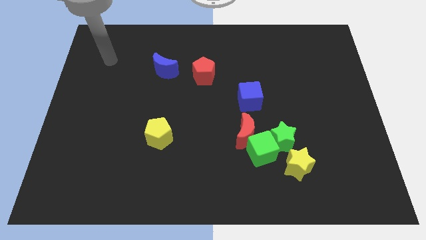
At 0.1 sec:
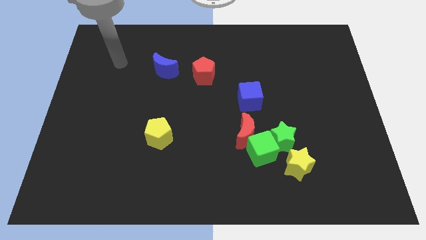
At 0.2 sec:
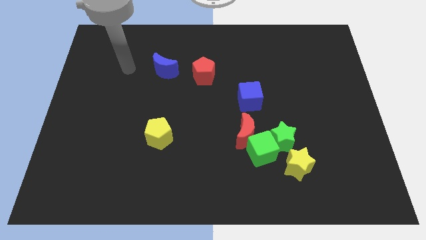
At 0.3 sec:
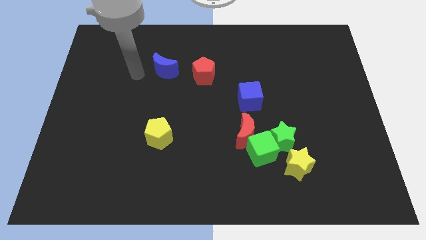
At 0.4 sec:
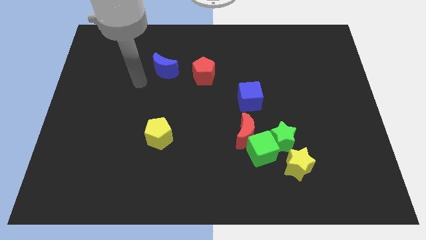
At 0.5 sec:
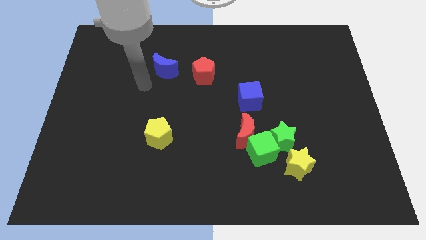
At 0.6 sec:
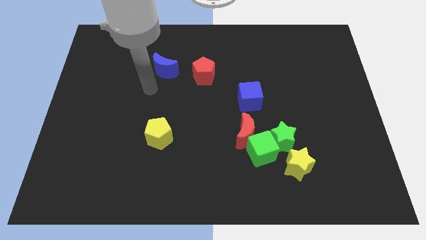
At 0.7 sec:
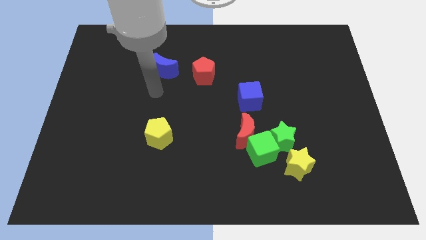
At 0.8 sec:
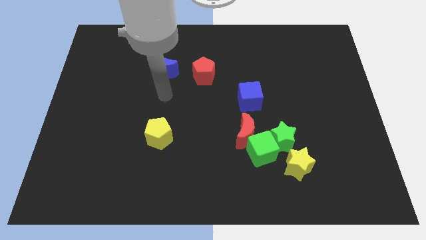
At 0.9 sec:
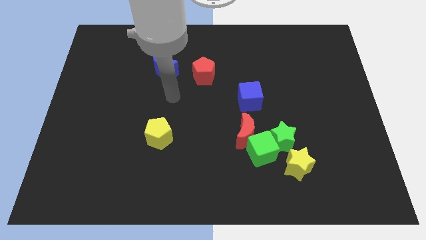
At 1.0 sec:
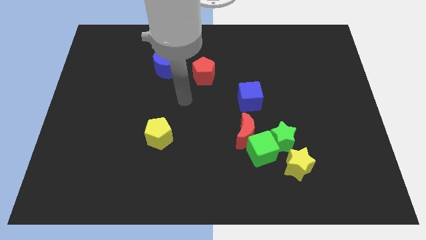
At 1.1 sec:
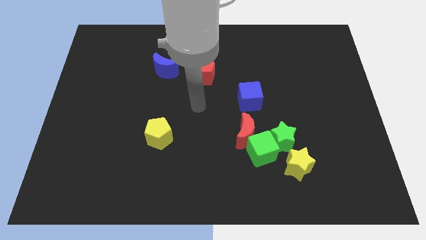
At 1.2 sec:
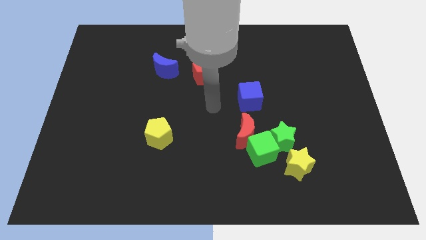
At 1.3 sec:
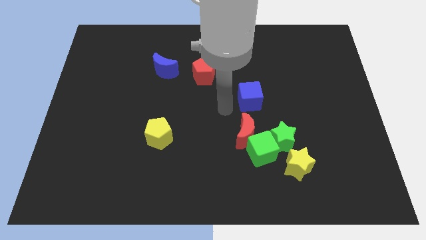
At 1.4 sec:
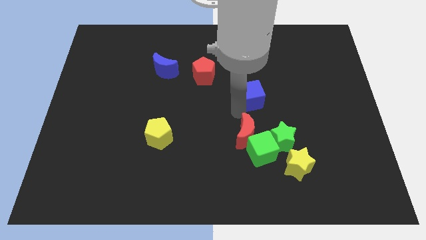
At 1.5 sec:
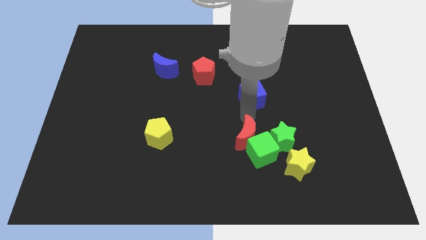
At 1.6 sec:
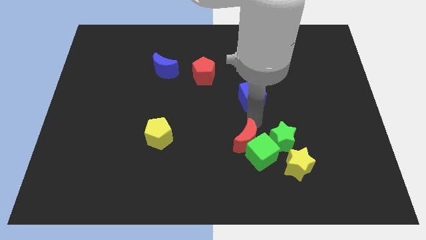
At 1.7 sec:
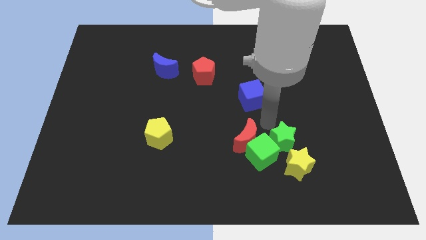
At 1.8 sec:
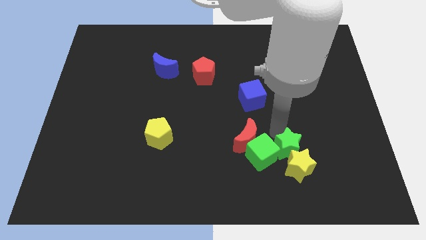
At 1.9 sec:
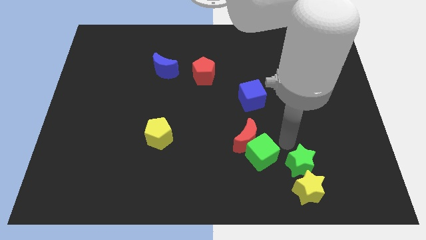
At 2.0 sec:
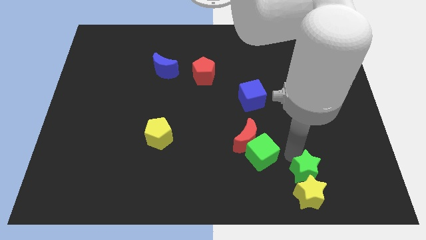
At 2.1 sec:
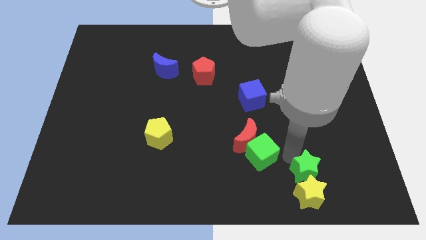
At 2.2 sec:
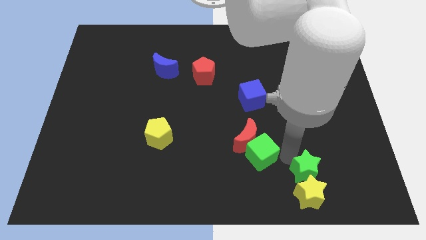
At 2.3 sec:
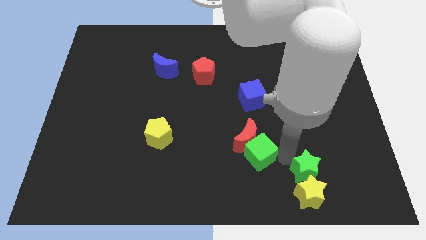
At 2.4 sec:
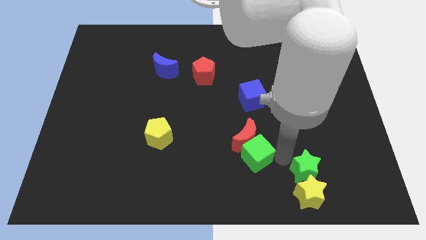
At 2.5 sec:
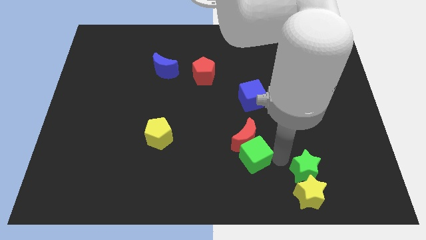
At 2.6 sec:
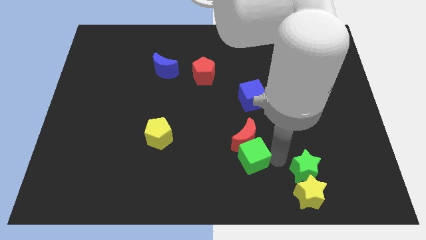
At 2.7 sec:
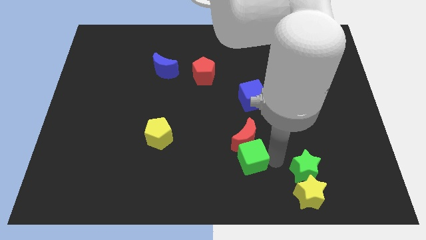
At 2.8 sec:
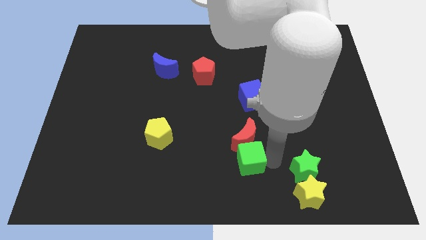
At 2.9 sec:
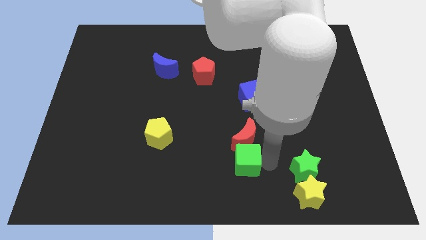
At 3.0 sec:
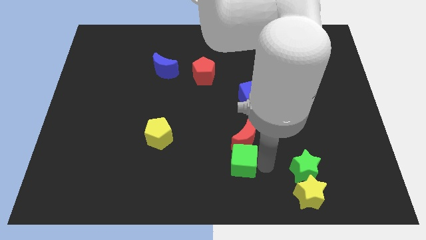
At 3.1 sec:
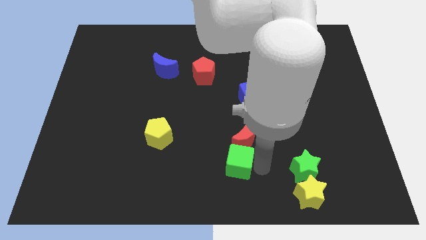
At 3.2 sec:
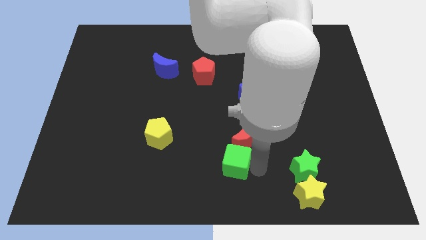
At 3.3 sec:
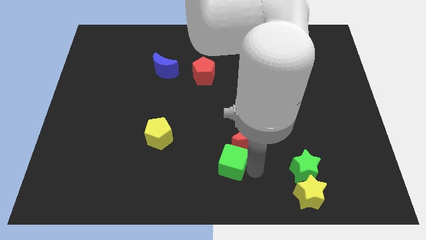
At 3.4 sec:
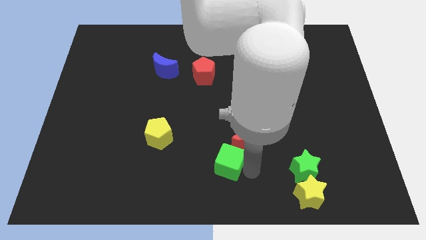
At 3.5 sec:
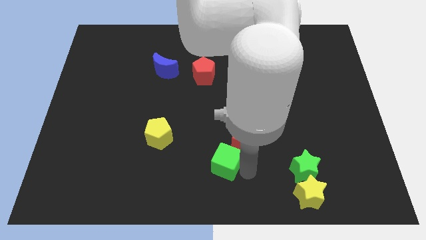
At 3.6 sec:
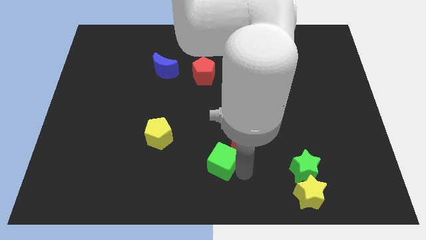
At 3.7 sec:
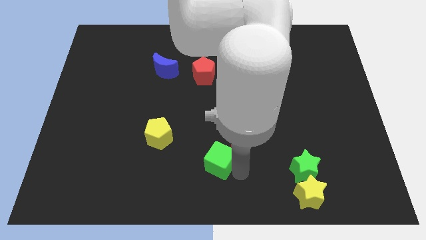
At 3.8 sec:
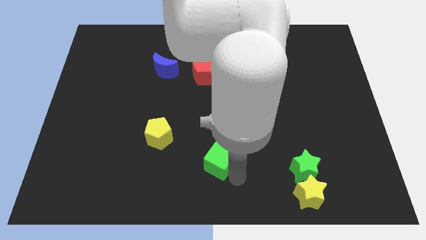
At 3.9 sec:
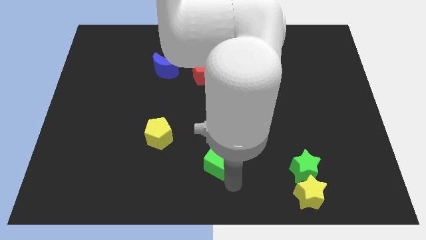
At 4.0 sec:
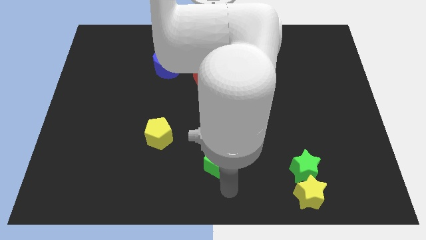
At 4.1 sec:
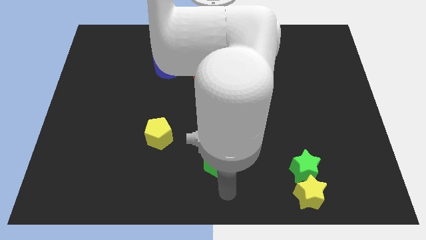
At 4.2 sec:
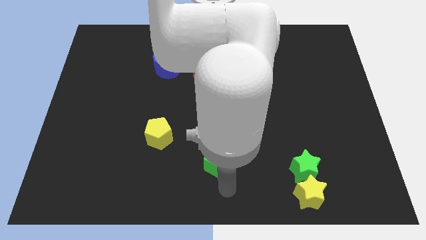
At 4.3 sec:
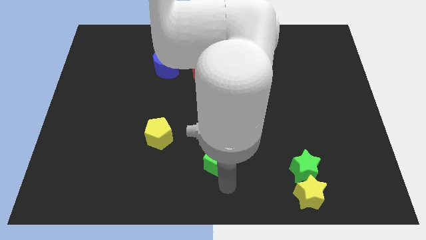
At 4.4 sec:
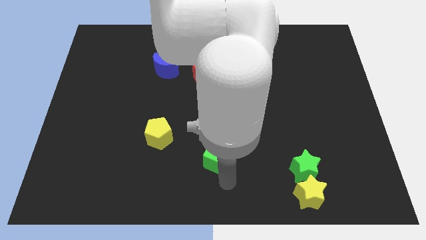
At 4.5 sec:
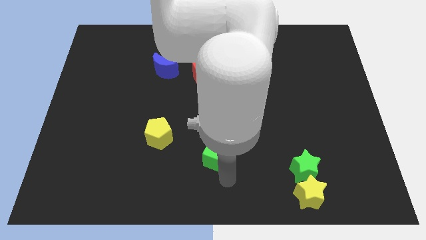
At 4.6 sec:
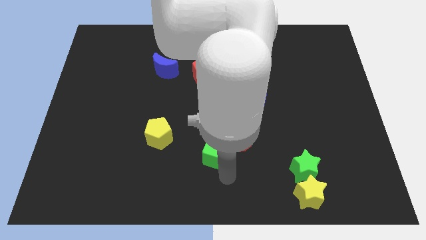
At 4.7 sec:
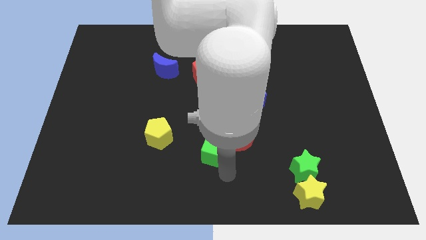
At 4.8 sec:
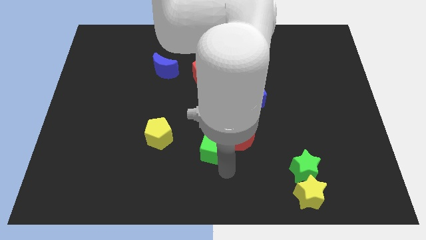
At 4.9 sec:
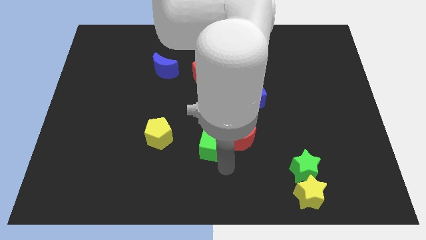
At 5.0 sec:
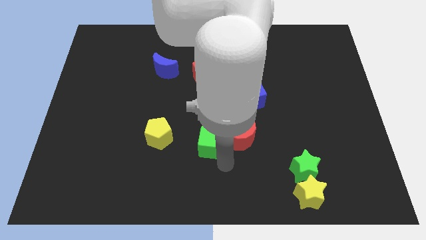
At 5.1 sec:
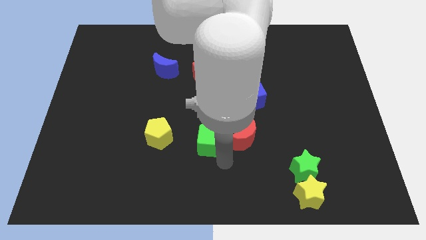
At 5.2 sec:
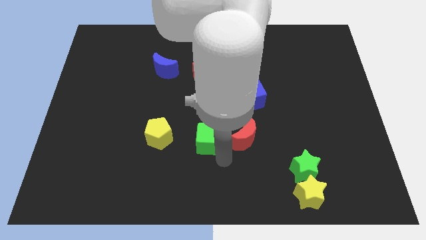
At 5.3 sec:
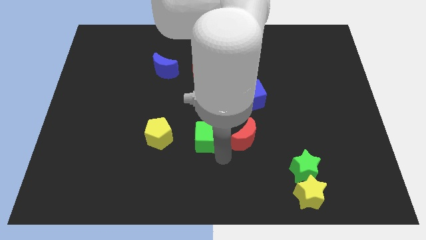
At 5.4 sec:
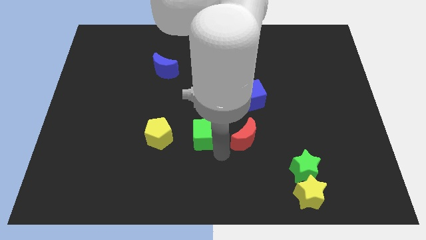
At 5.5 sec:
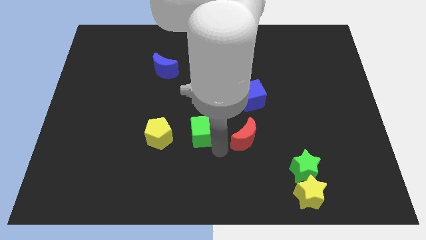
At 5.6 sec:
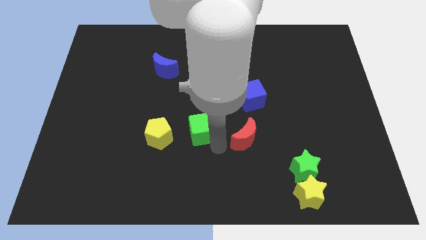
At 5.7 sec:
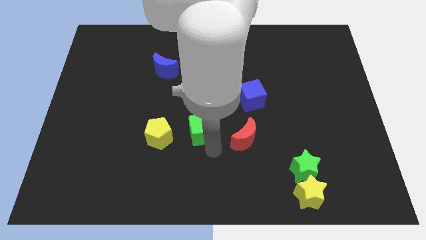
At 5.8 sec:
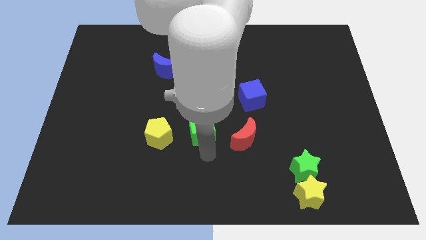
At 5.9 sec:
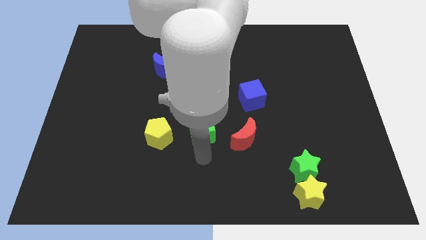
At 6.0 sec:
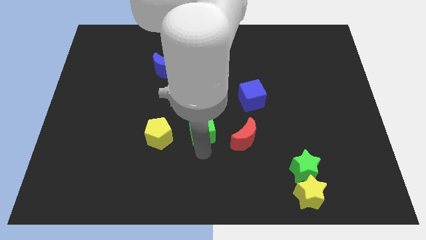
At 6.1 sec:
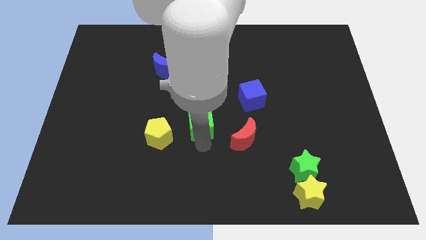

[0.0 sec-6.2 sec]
put the green cube below the red pentagon
